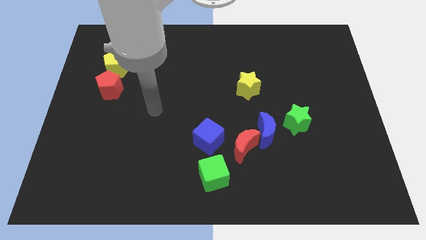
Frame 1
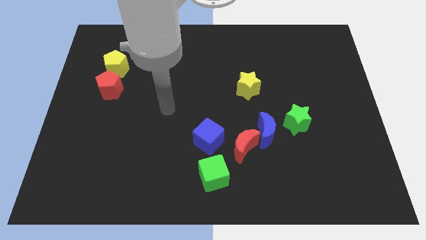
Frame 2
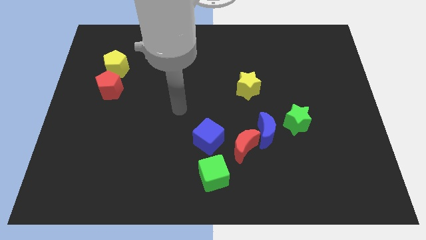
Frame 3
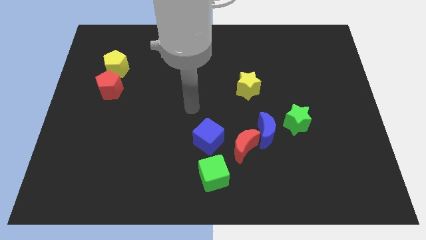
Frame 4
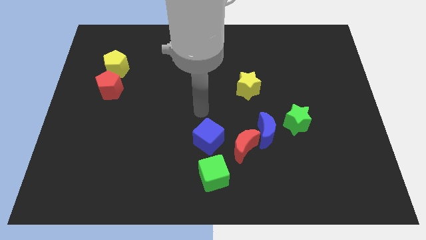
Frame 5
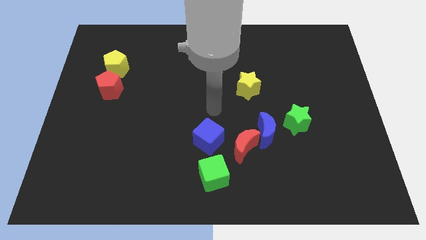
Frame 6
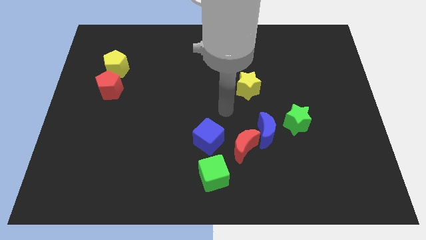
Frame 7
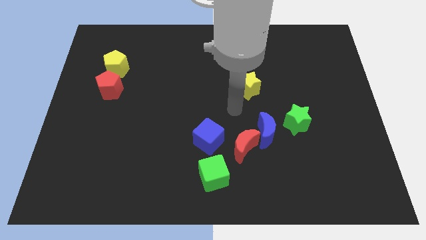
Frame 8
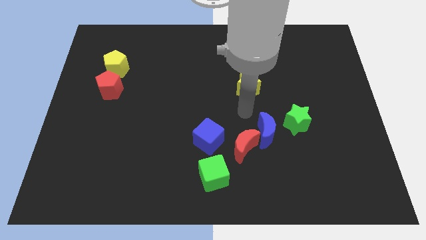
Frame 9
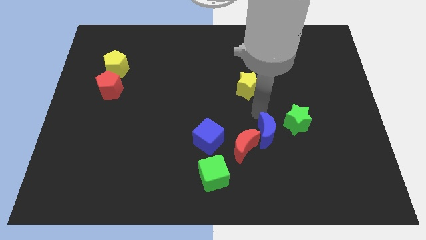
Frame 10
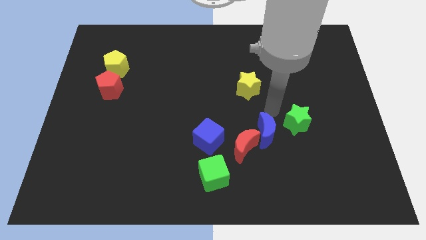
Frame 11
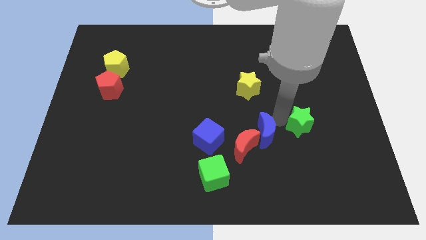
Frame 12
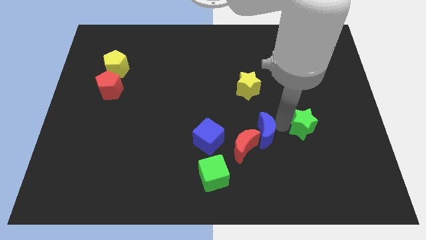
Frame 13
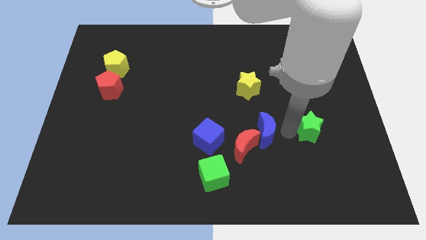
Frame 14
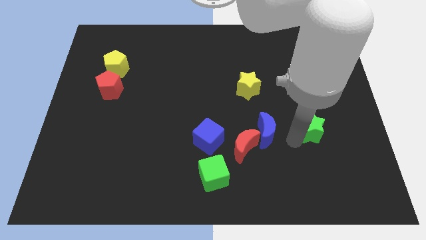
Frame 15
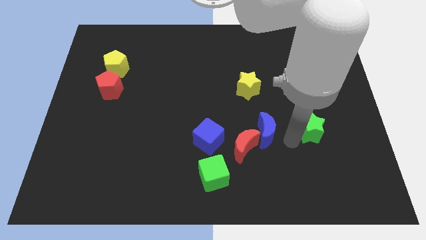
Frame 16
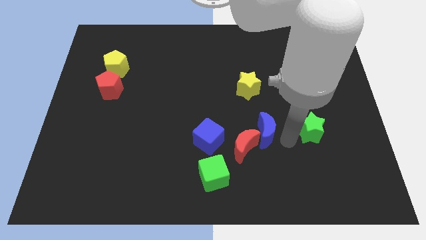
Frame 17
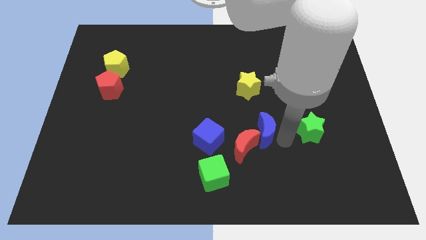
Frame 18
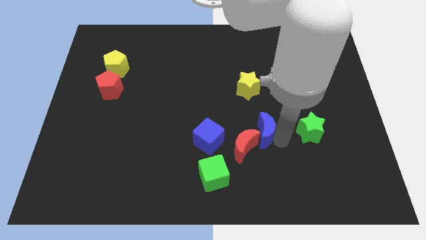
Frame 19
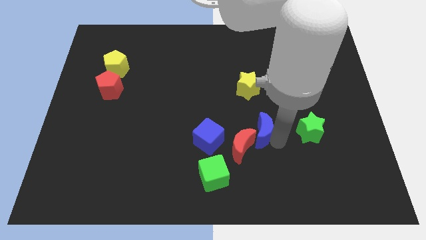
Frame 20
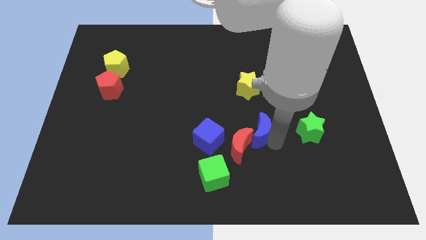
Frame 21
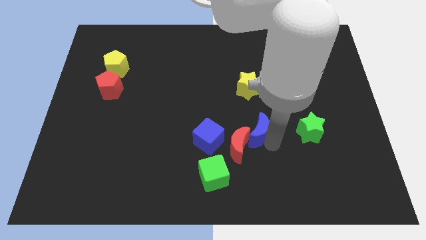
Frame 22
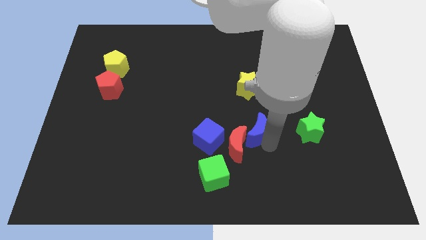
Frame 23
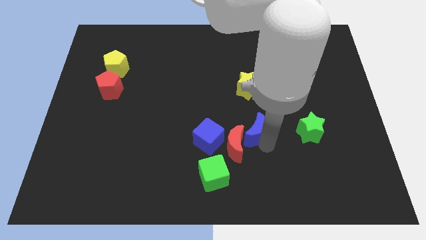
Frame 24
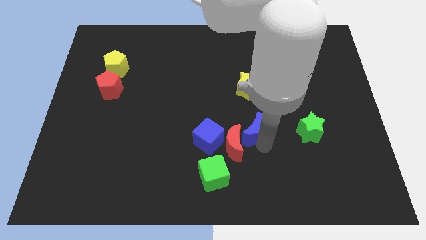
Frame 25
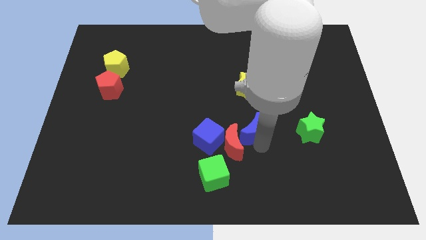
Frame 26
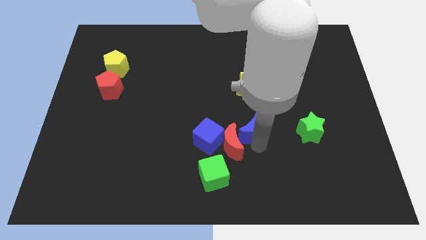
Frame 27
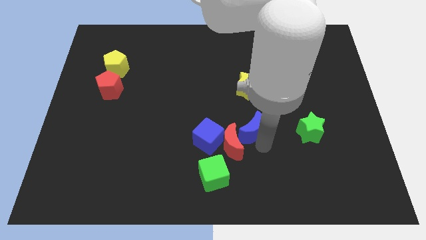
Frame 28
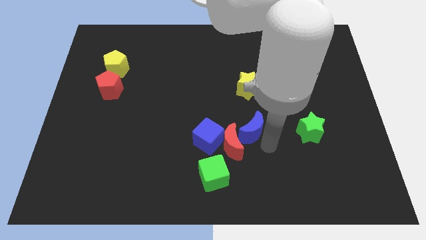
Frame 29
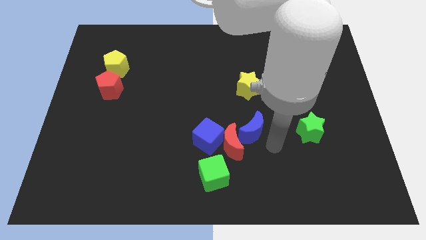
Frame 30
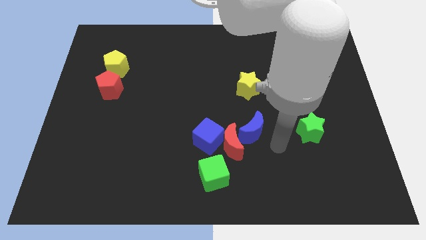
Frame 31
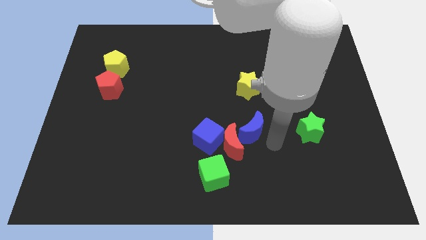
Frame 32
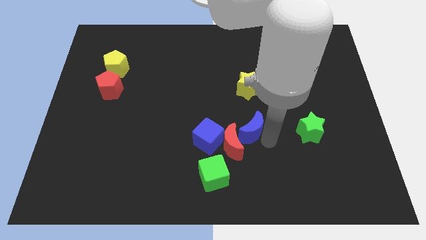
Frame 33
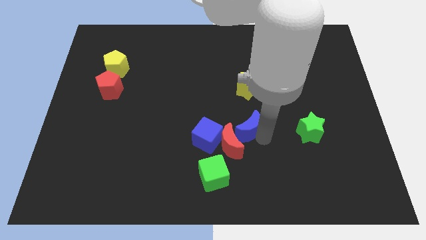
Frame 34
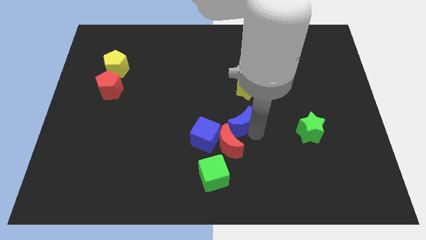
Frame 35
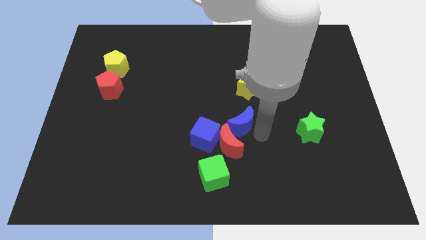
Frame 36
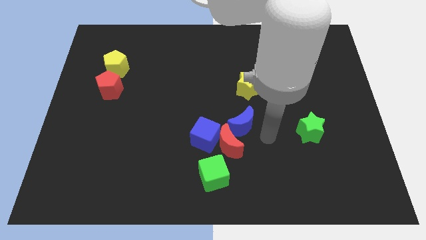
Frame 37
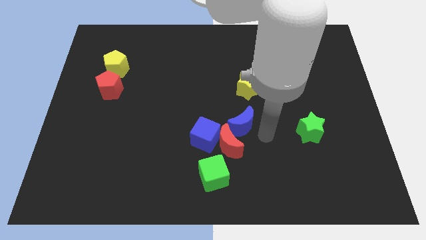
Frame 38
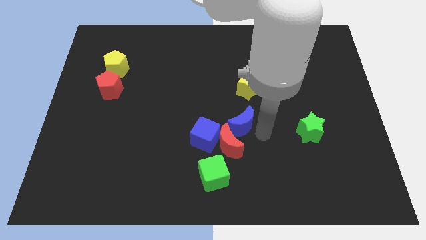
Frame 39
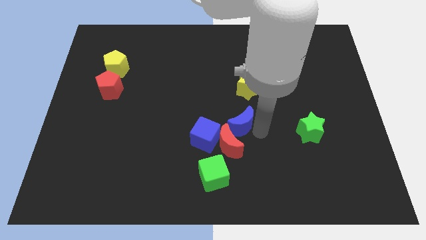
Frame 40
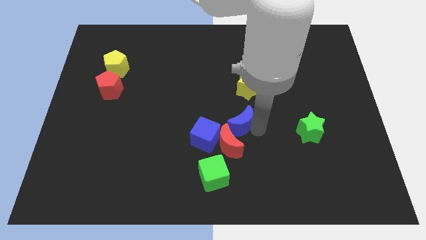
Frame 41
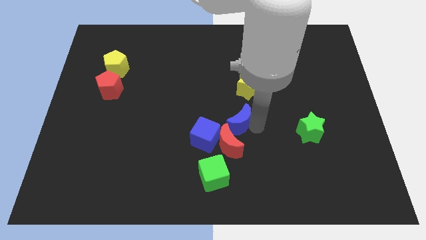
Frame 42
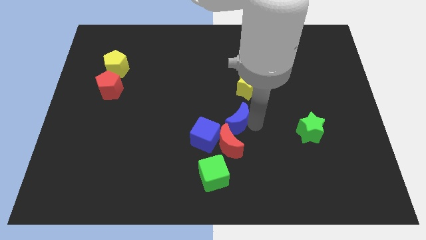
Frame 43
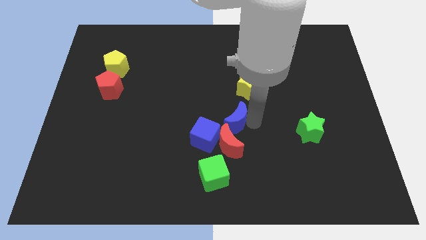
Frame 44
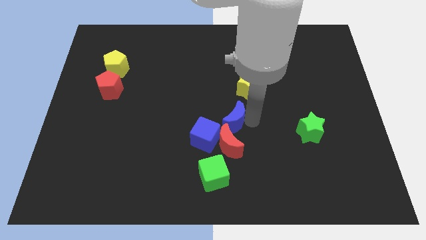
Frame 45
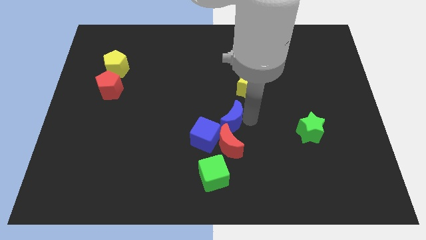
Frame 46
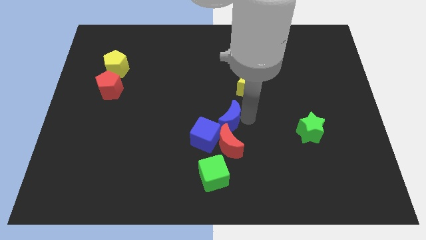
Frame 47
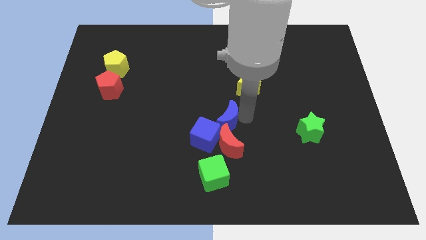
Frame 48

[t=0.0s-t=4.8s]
move the blue moon away from the red moon and green star

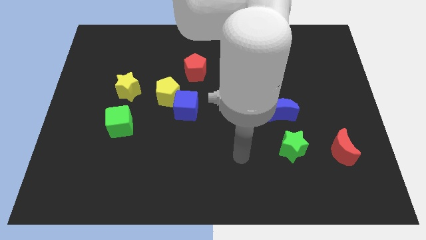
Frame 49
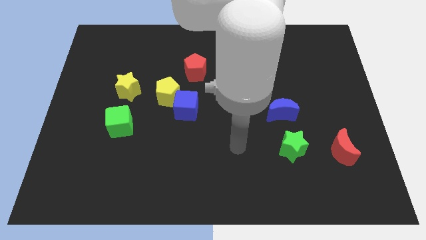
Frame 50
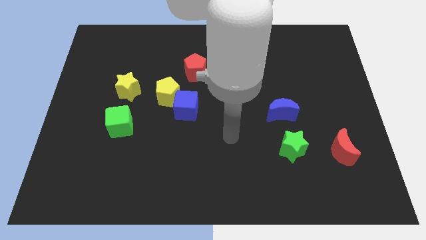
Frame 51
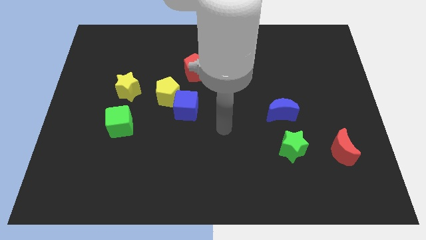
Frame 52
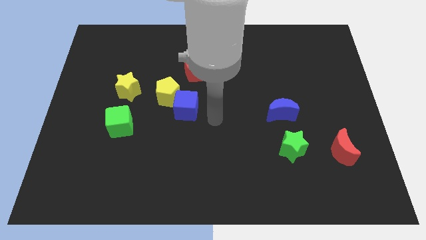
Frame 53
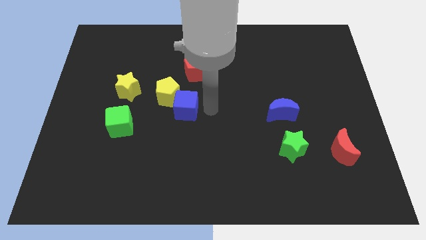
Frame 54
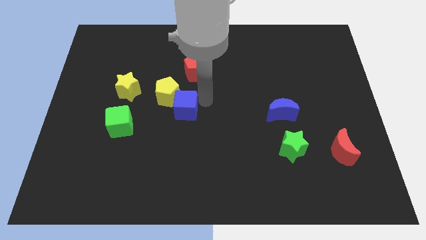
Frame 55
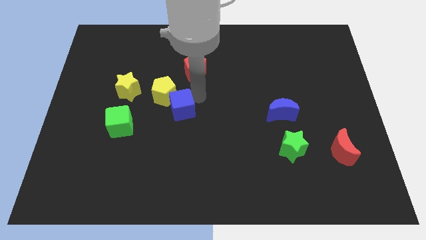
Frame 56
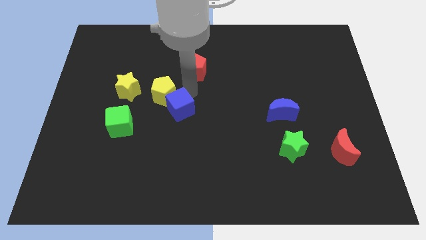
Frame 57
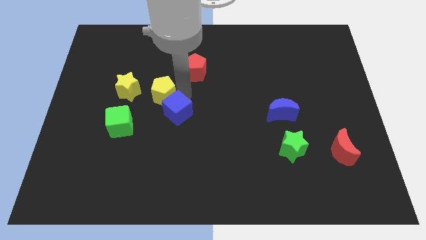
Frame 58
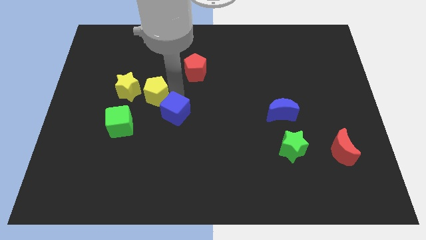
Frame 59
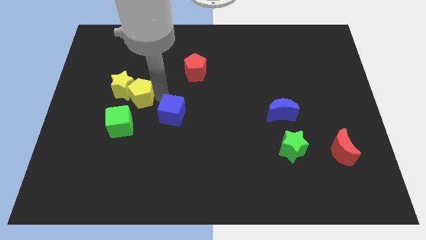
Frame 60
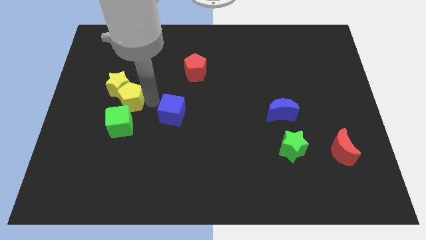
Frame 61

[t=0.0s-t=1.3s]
separate the blue cube from the yellow pentagon

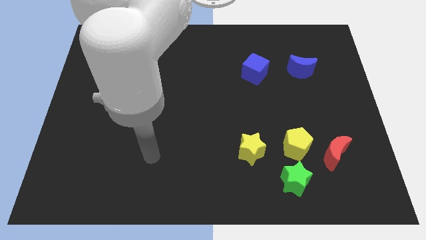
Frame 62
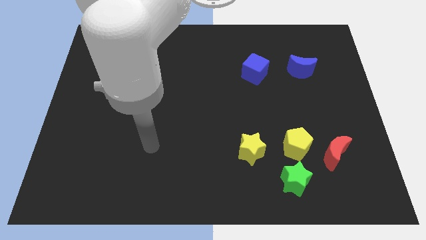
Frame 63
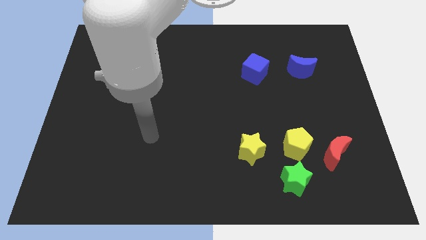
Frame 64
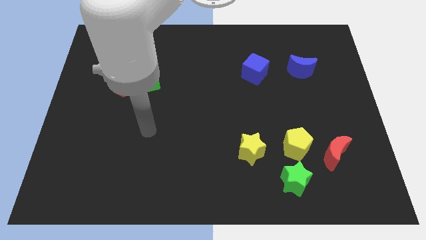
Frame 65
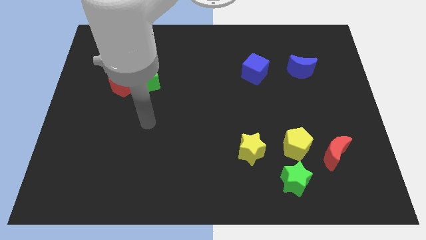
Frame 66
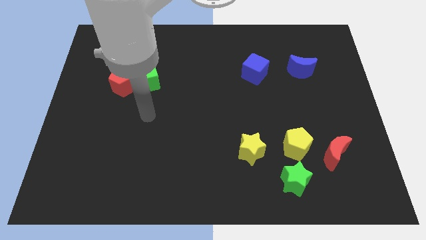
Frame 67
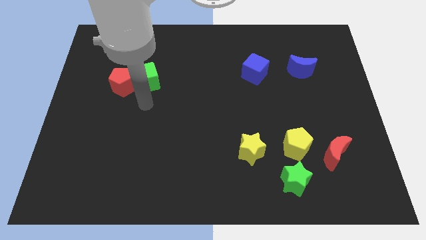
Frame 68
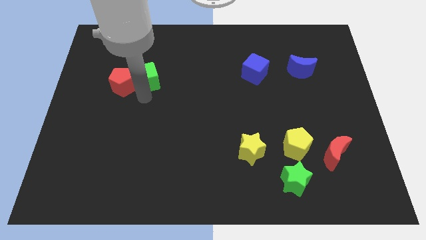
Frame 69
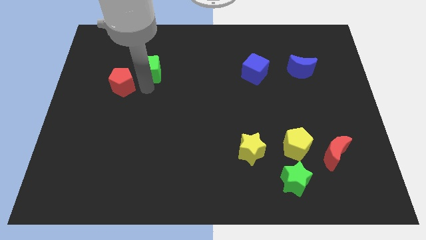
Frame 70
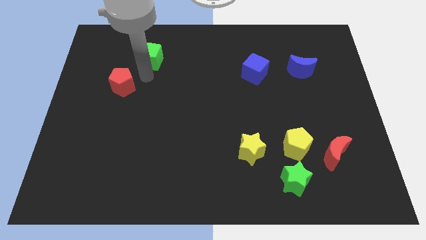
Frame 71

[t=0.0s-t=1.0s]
move the red pentagon away from the green cube

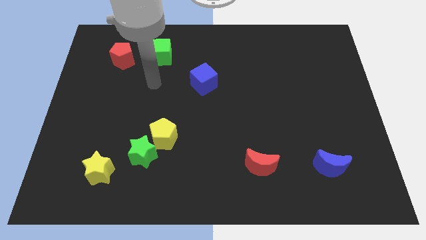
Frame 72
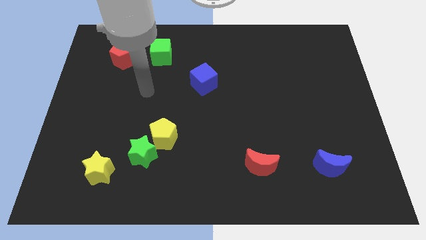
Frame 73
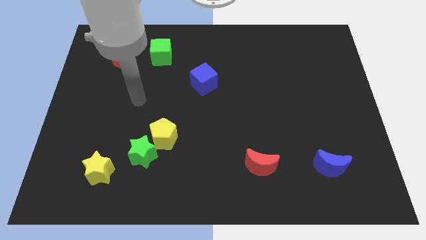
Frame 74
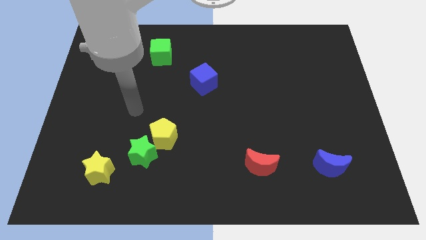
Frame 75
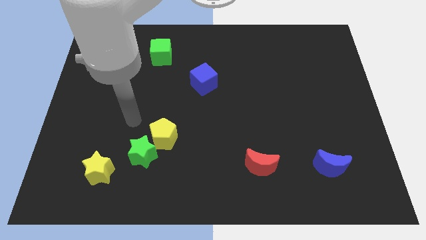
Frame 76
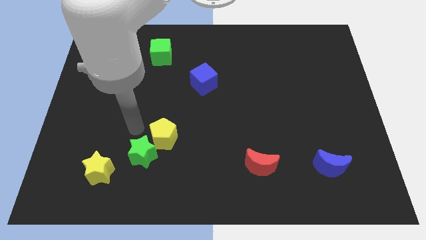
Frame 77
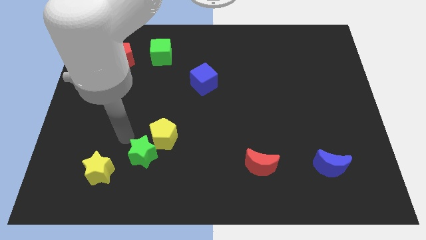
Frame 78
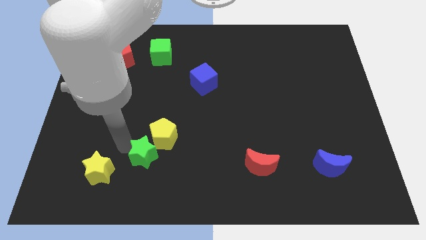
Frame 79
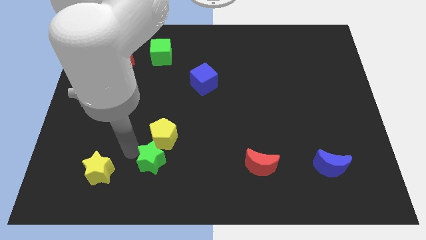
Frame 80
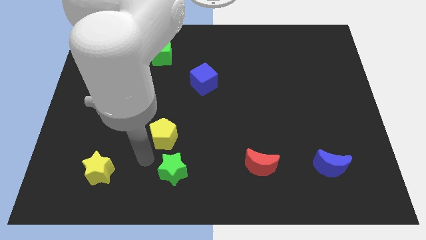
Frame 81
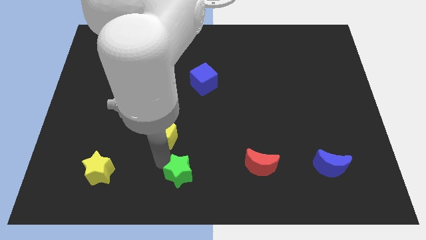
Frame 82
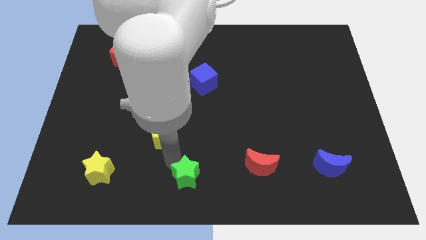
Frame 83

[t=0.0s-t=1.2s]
pull the yellow pentagon apart from the green star

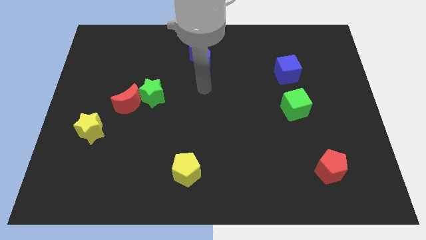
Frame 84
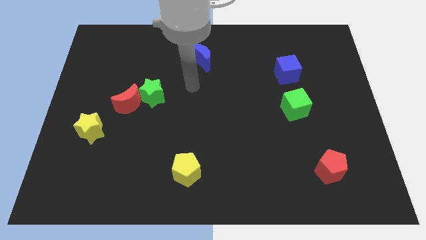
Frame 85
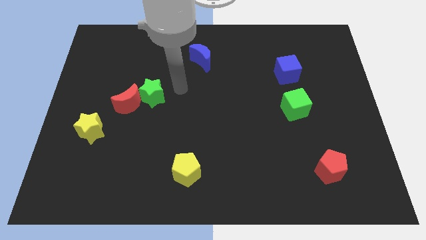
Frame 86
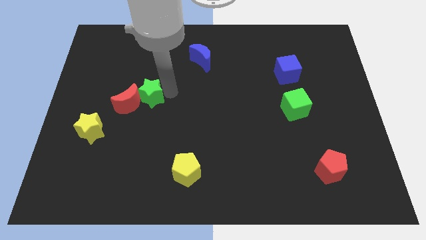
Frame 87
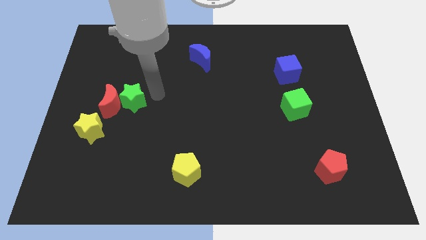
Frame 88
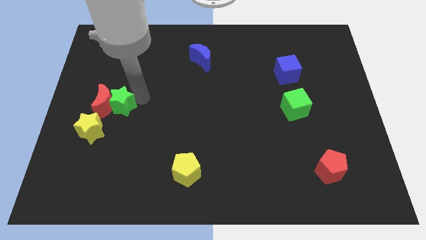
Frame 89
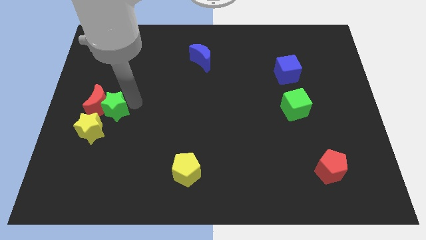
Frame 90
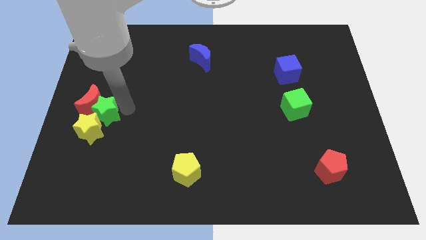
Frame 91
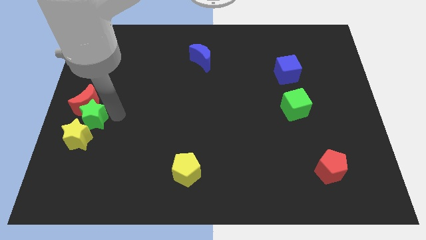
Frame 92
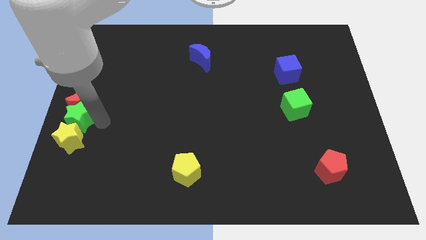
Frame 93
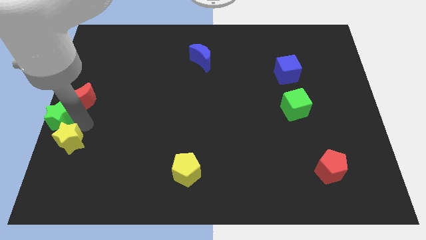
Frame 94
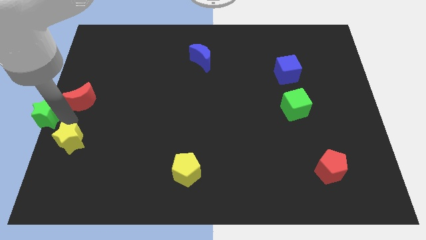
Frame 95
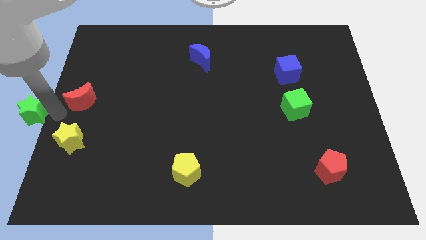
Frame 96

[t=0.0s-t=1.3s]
separate the red moon from the green star
